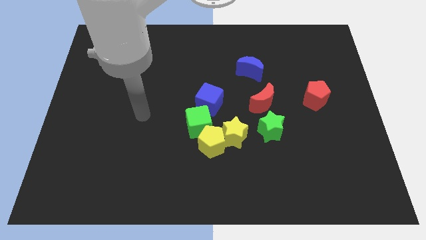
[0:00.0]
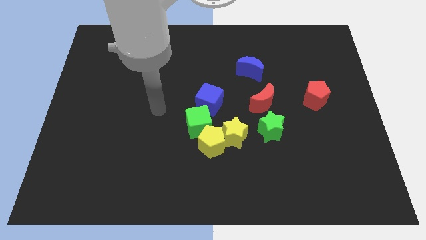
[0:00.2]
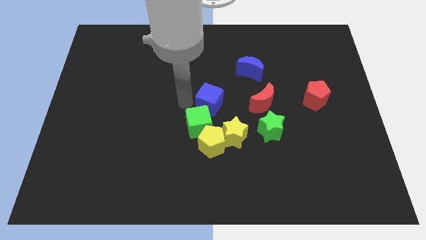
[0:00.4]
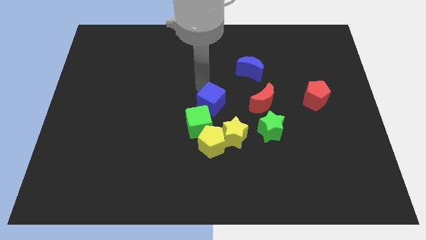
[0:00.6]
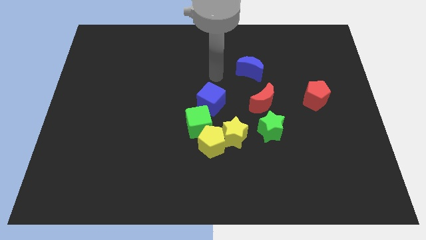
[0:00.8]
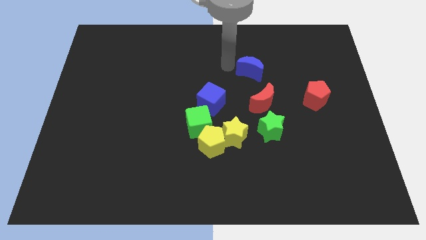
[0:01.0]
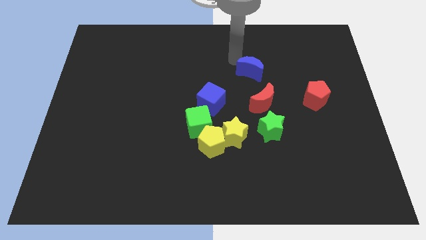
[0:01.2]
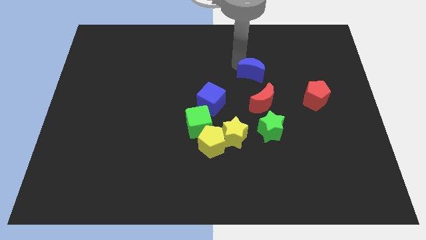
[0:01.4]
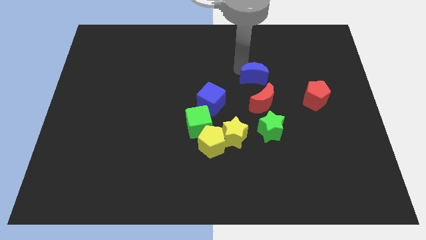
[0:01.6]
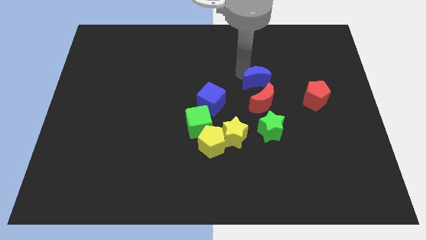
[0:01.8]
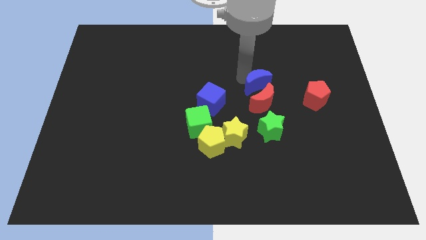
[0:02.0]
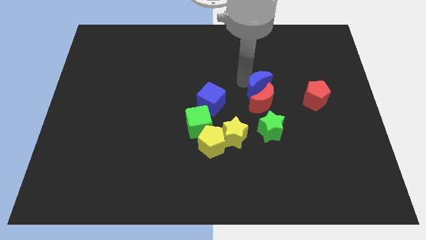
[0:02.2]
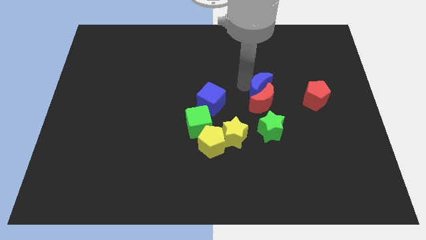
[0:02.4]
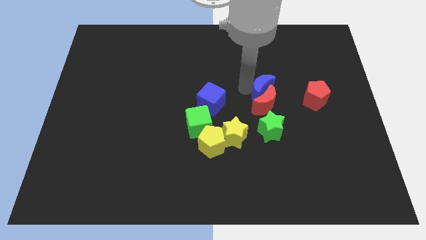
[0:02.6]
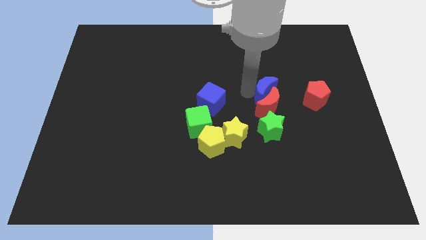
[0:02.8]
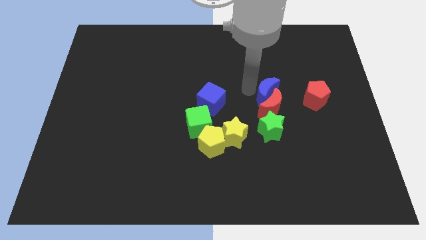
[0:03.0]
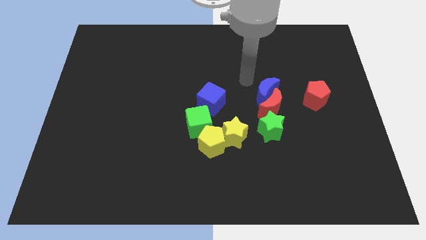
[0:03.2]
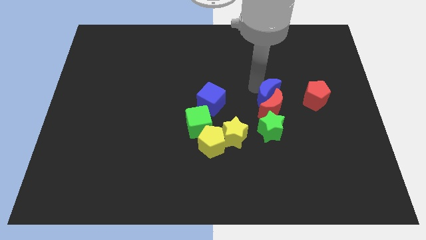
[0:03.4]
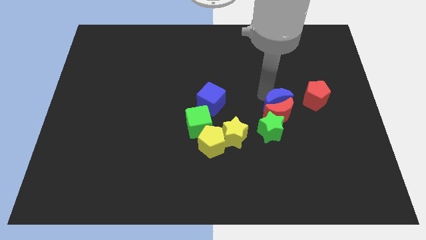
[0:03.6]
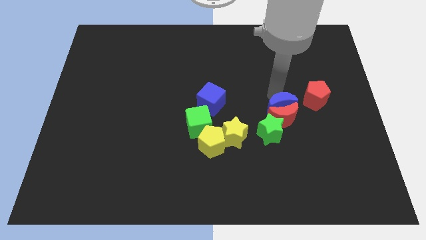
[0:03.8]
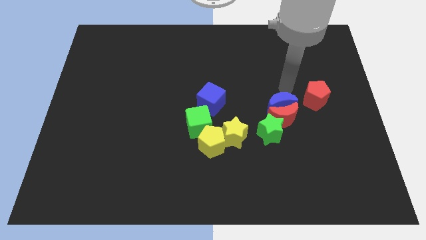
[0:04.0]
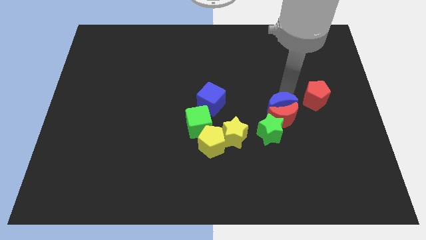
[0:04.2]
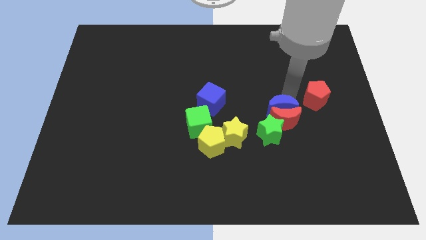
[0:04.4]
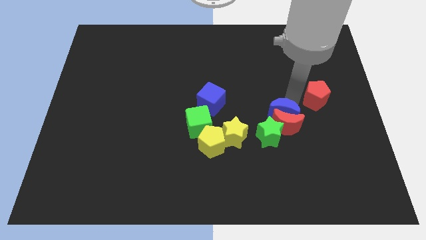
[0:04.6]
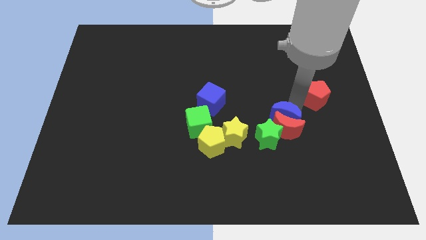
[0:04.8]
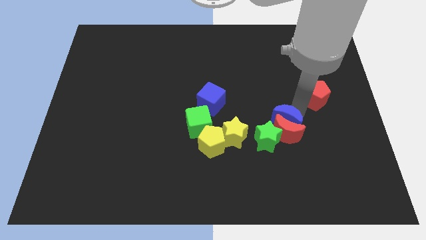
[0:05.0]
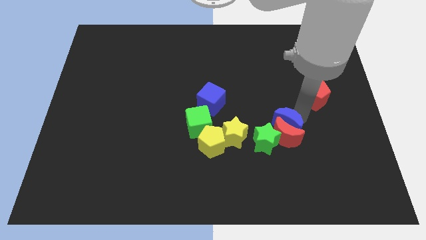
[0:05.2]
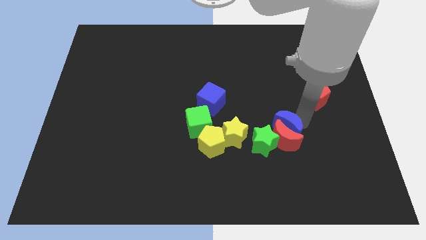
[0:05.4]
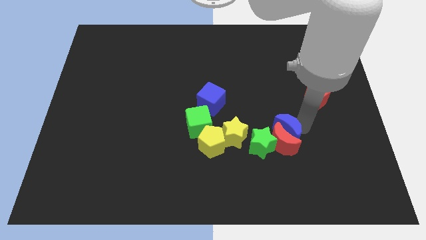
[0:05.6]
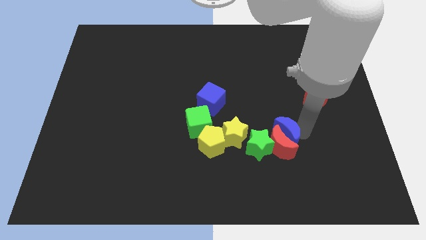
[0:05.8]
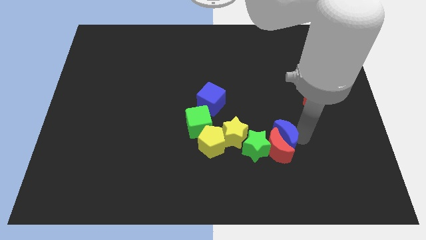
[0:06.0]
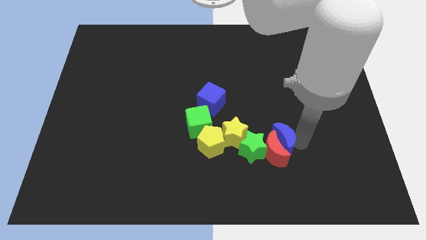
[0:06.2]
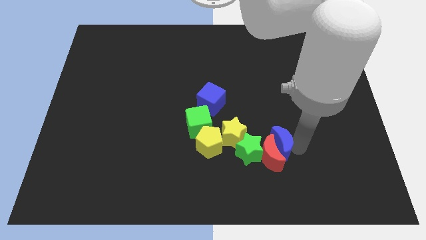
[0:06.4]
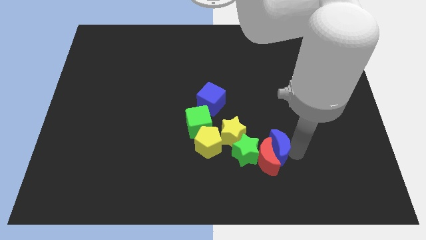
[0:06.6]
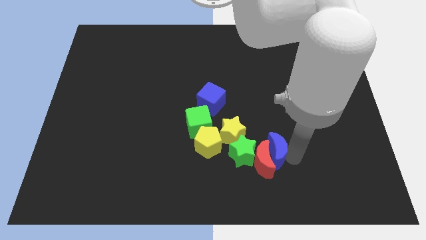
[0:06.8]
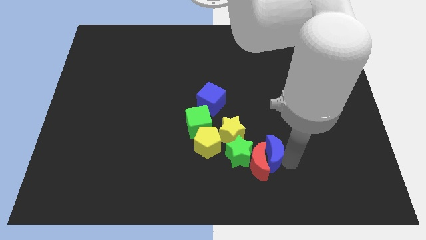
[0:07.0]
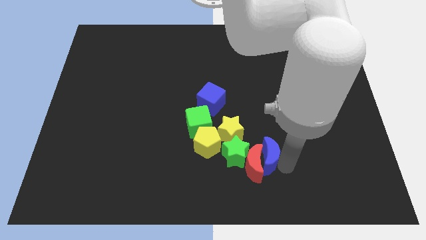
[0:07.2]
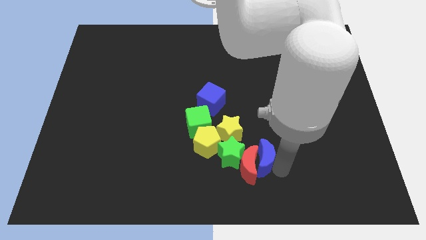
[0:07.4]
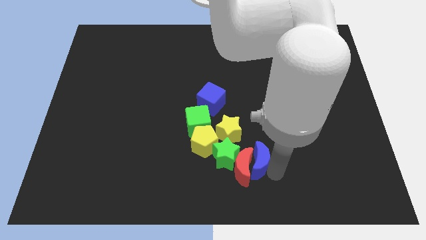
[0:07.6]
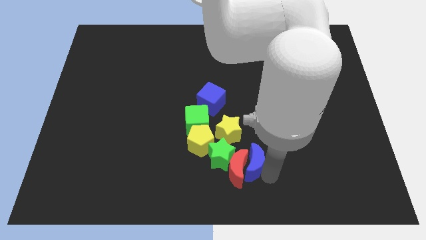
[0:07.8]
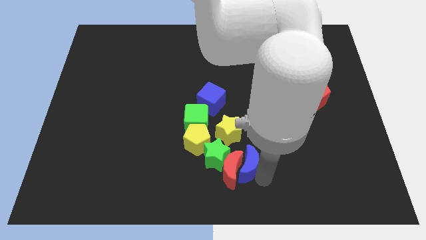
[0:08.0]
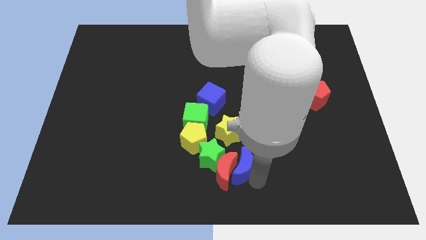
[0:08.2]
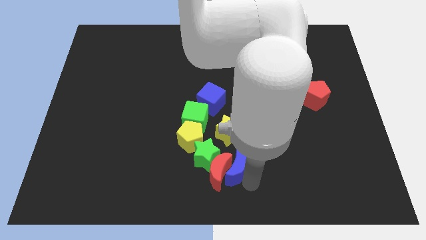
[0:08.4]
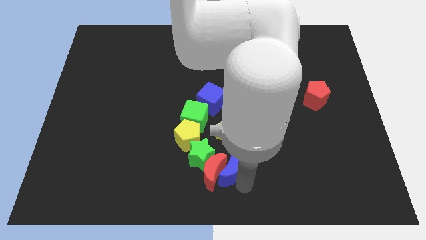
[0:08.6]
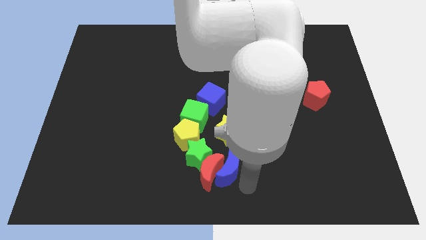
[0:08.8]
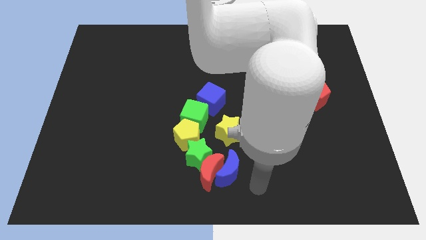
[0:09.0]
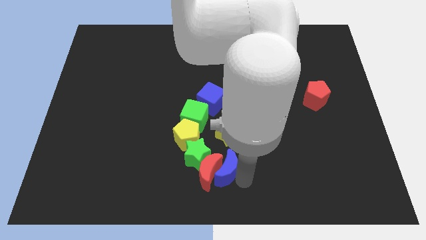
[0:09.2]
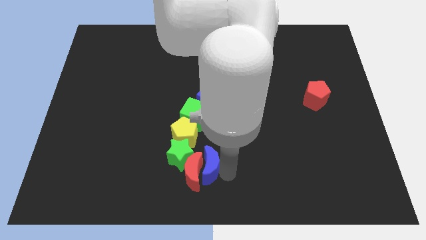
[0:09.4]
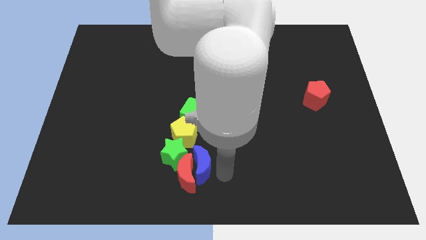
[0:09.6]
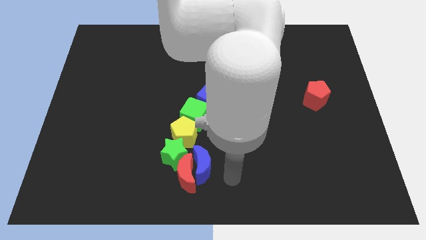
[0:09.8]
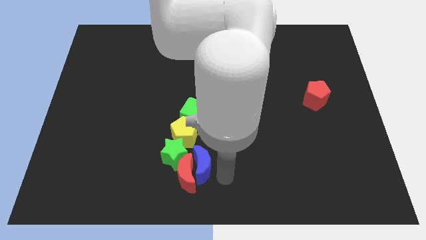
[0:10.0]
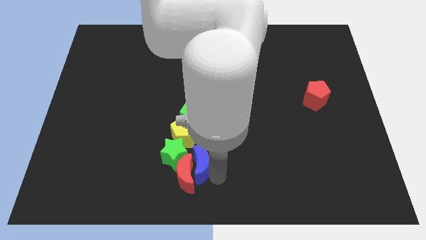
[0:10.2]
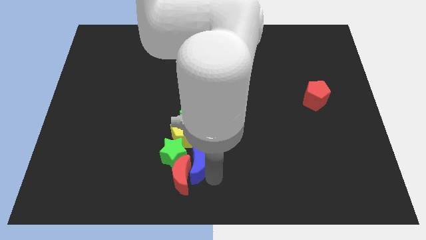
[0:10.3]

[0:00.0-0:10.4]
push the blue moon next to the green star

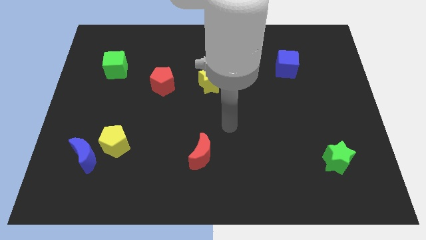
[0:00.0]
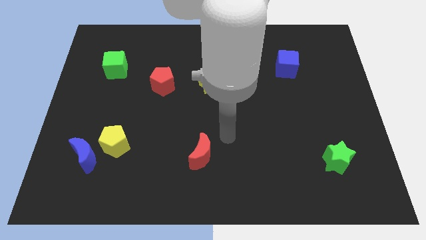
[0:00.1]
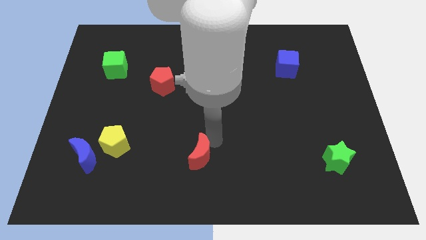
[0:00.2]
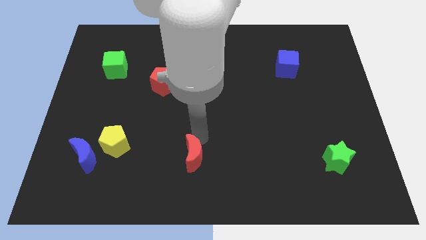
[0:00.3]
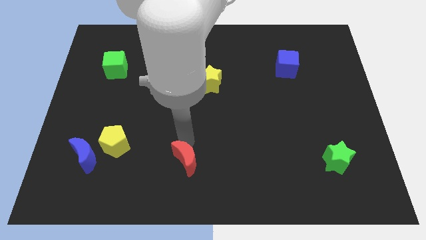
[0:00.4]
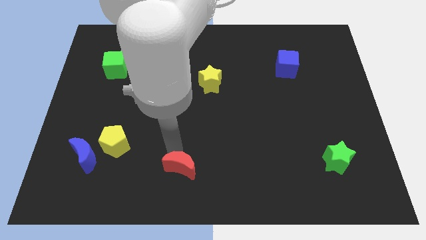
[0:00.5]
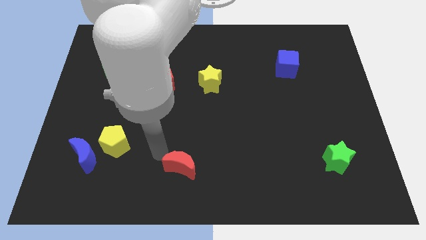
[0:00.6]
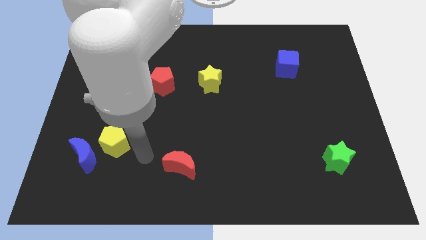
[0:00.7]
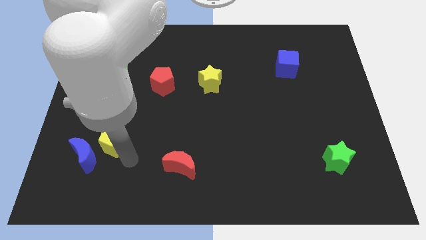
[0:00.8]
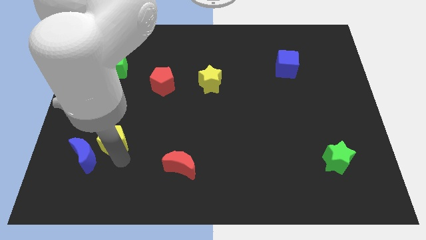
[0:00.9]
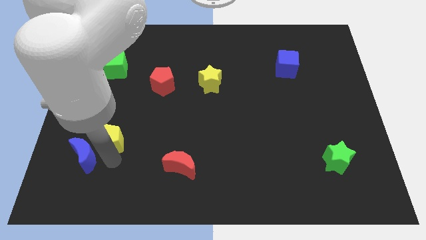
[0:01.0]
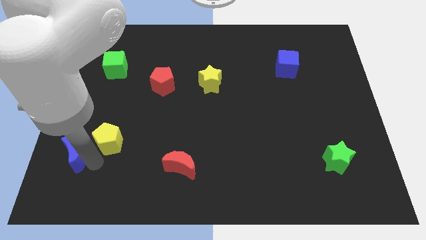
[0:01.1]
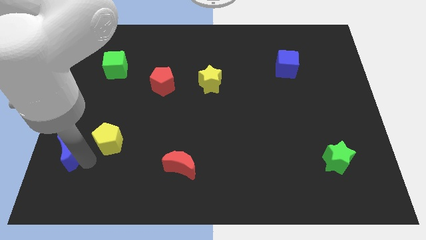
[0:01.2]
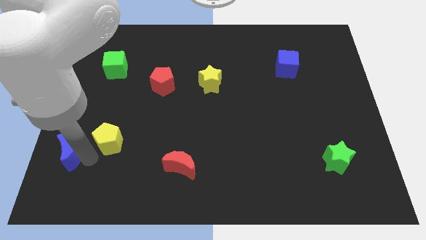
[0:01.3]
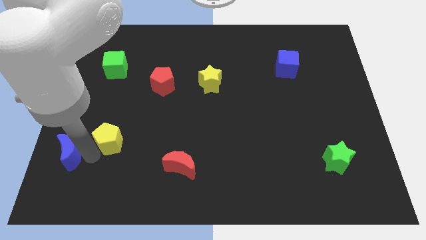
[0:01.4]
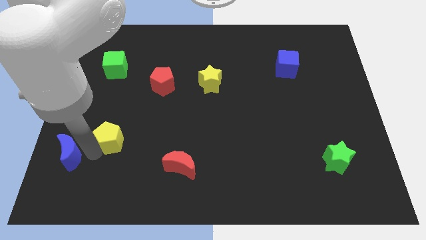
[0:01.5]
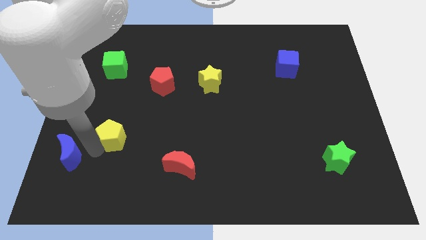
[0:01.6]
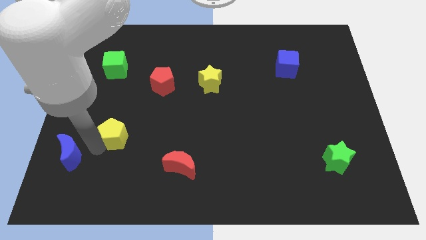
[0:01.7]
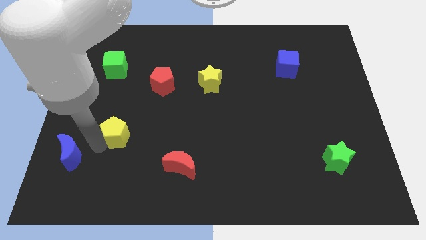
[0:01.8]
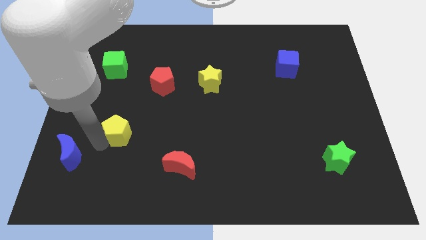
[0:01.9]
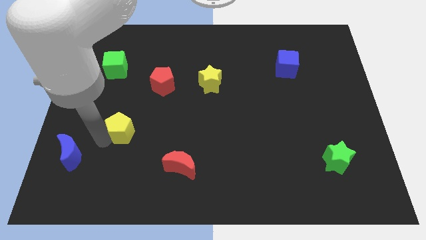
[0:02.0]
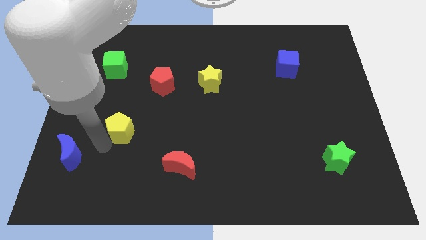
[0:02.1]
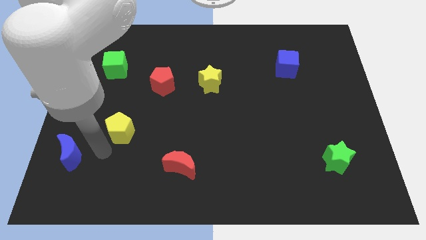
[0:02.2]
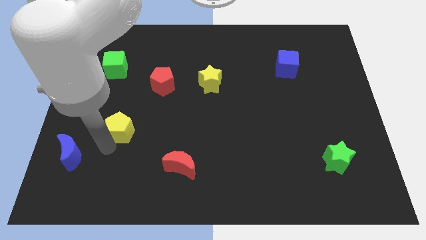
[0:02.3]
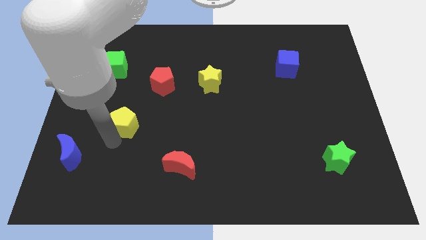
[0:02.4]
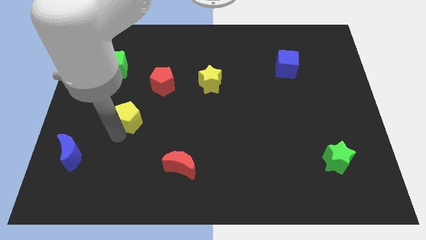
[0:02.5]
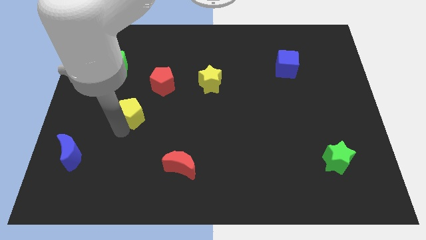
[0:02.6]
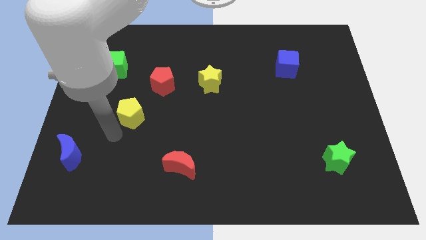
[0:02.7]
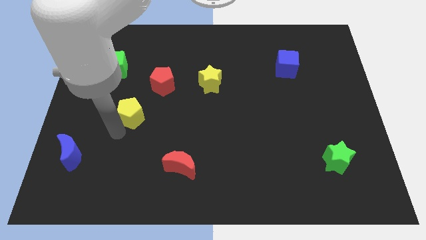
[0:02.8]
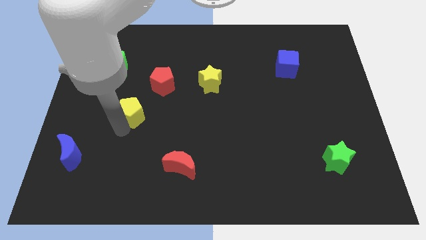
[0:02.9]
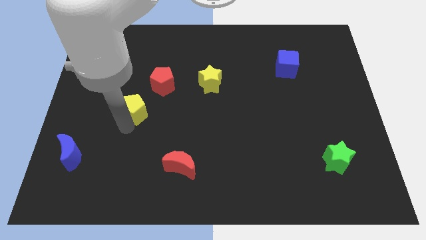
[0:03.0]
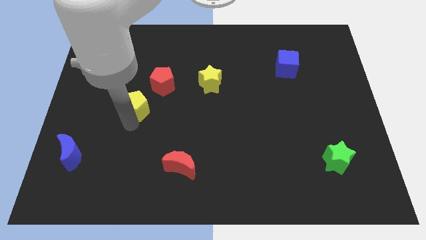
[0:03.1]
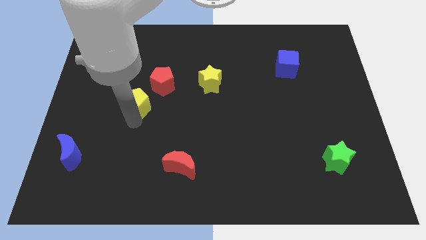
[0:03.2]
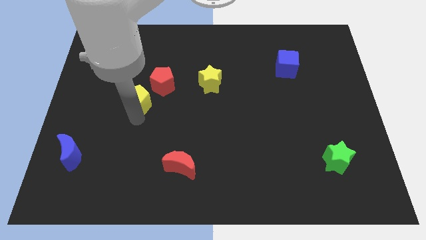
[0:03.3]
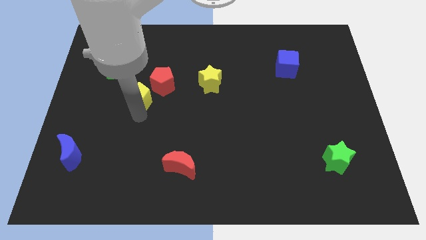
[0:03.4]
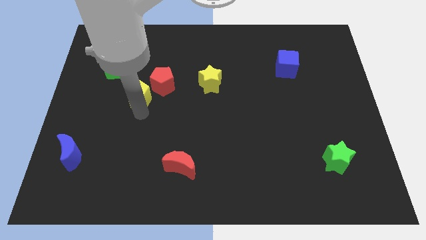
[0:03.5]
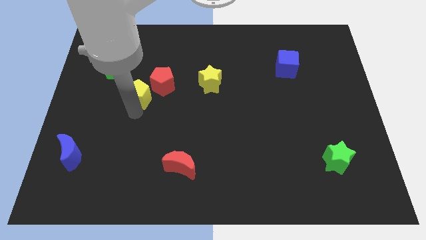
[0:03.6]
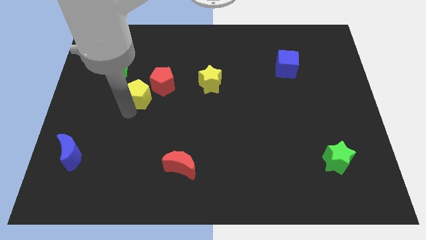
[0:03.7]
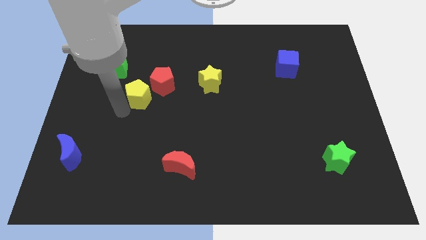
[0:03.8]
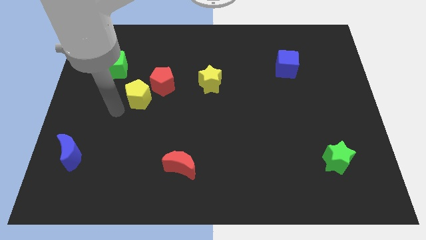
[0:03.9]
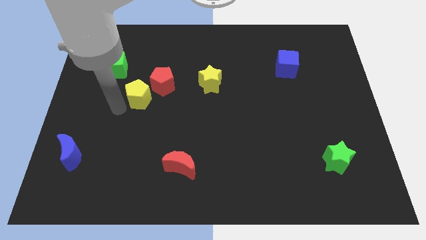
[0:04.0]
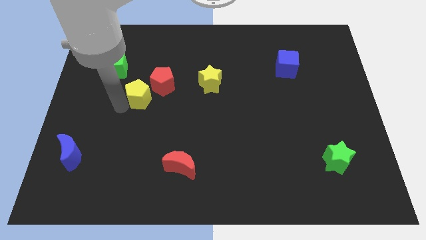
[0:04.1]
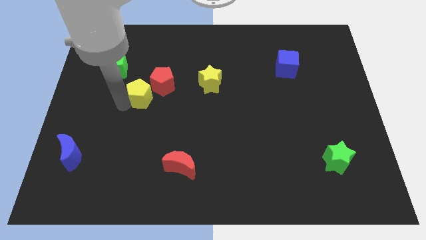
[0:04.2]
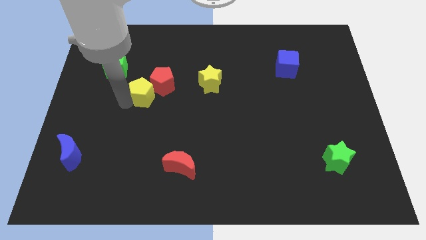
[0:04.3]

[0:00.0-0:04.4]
push the yellow pentagon to the red pentagon
